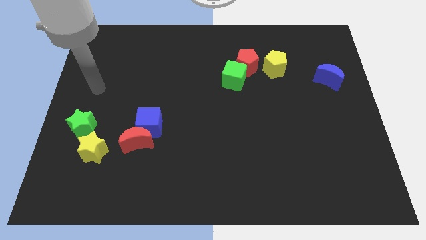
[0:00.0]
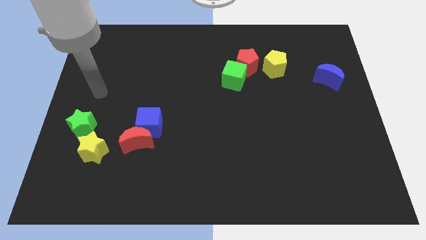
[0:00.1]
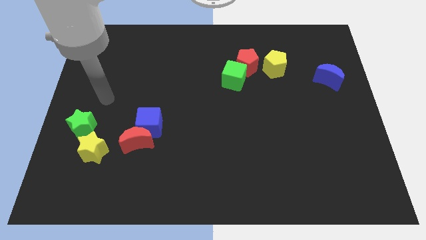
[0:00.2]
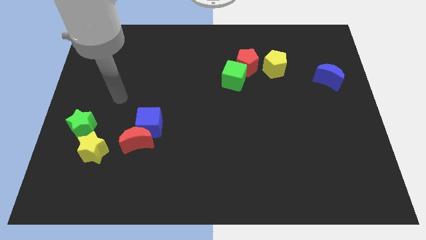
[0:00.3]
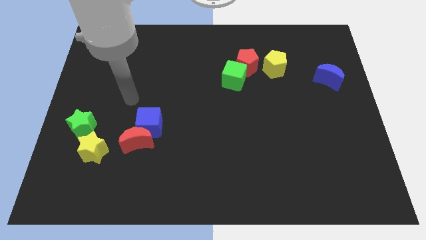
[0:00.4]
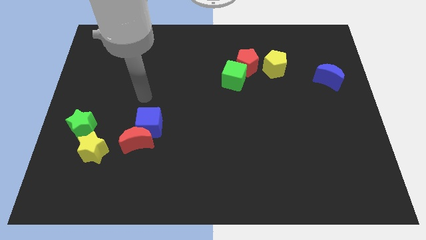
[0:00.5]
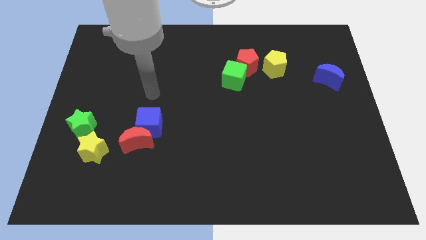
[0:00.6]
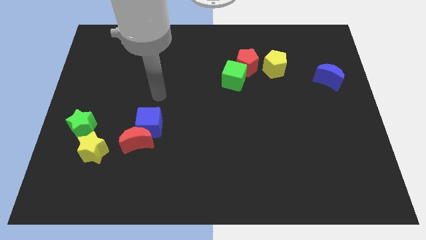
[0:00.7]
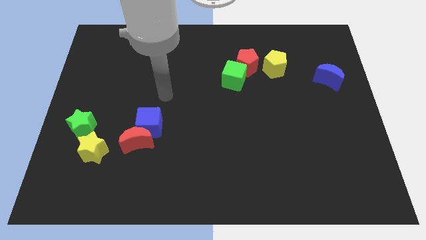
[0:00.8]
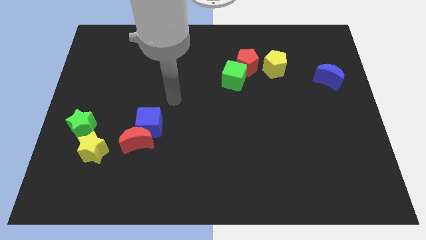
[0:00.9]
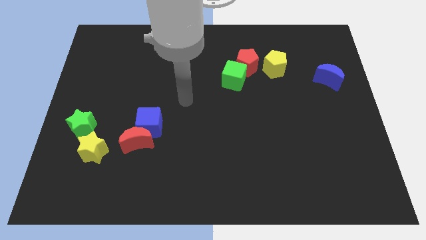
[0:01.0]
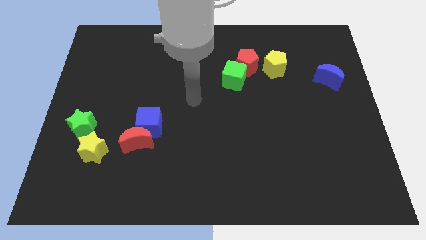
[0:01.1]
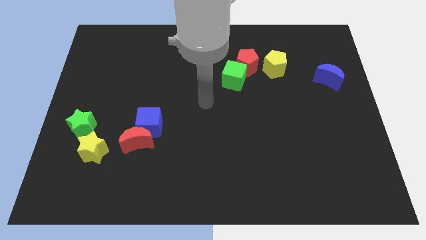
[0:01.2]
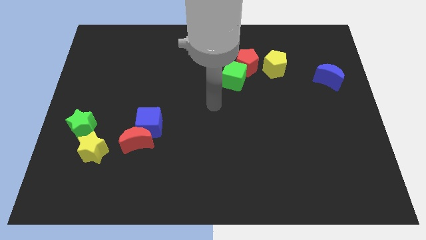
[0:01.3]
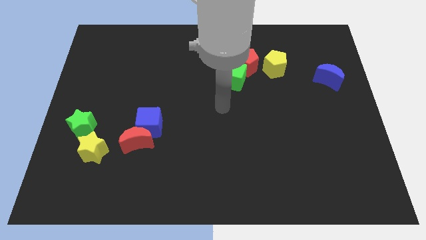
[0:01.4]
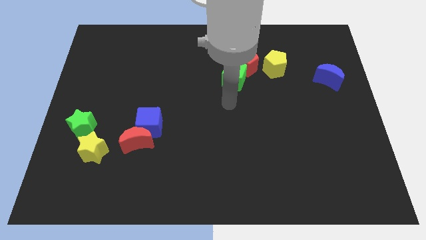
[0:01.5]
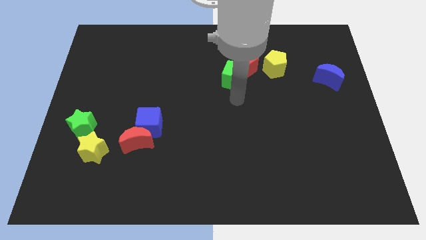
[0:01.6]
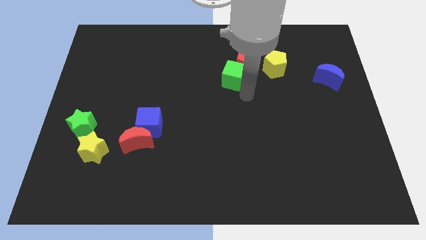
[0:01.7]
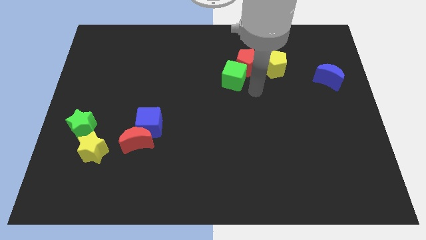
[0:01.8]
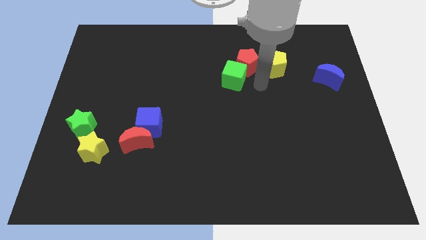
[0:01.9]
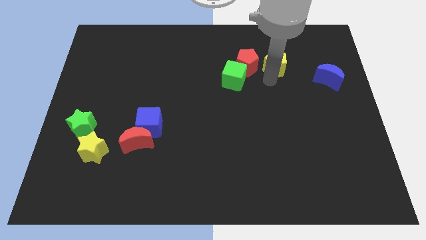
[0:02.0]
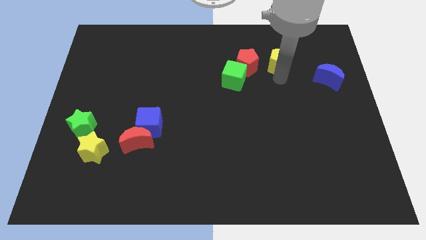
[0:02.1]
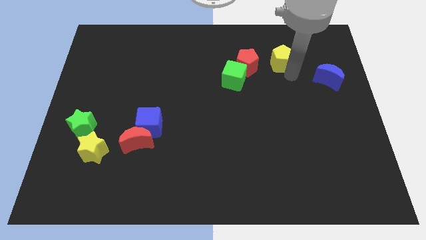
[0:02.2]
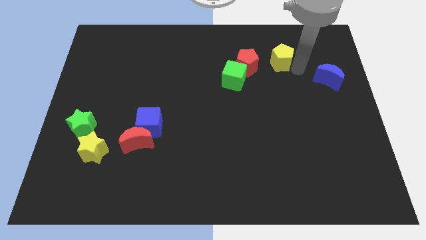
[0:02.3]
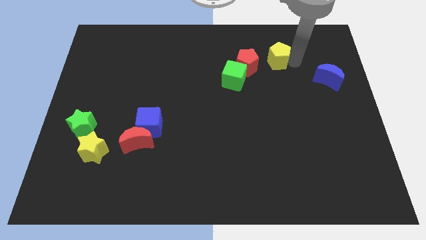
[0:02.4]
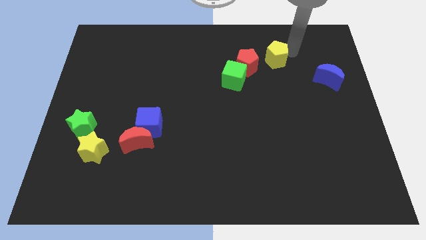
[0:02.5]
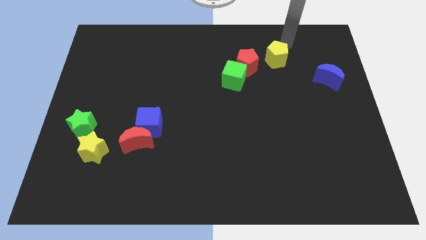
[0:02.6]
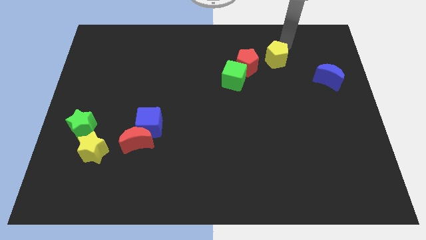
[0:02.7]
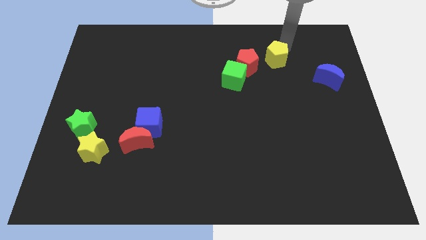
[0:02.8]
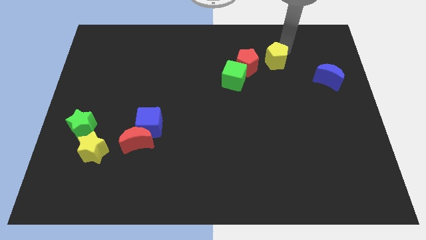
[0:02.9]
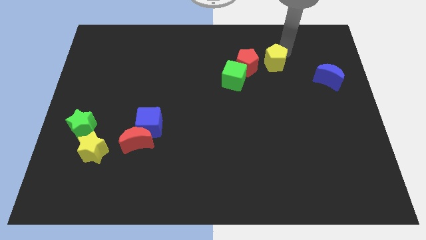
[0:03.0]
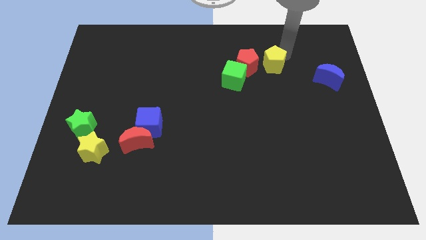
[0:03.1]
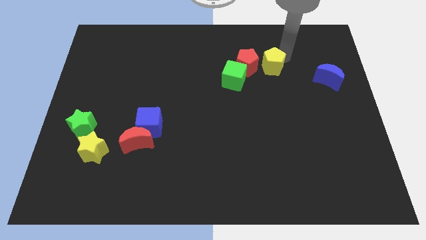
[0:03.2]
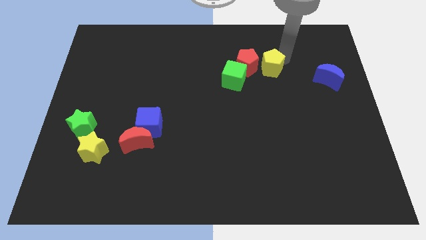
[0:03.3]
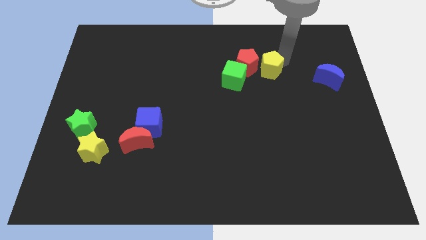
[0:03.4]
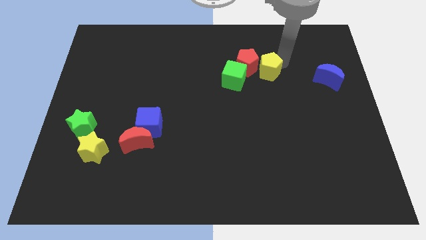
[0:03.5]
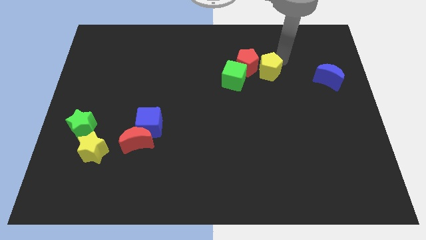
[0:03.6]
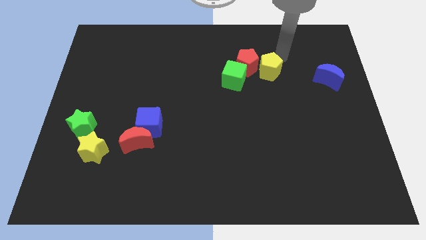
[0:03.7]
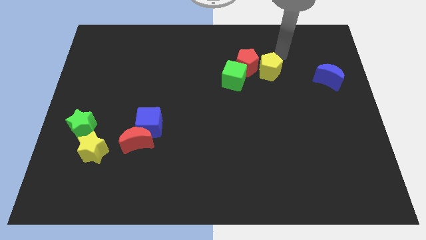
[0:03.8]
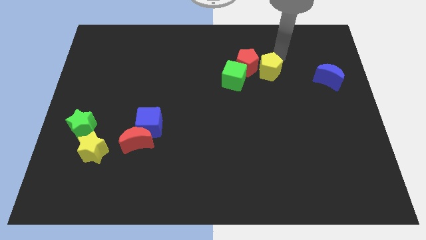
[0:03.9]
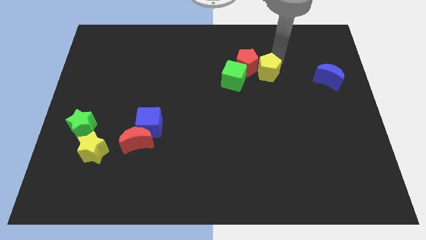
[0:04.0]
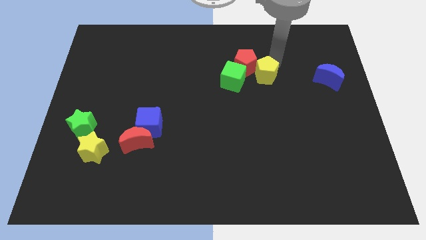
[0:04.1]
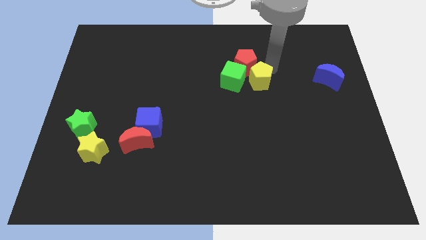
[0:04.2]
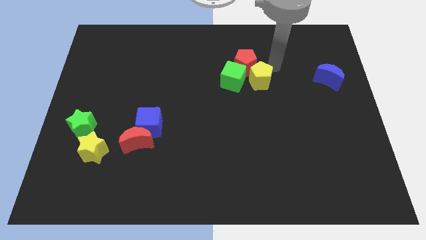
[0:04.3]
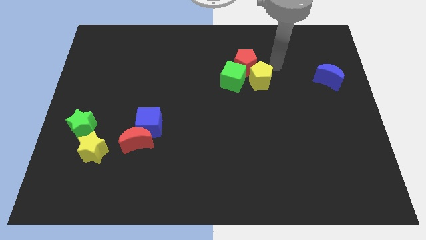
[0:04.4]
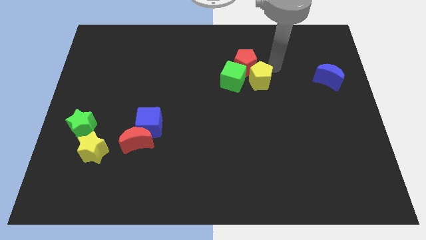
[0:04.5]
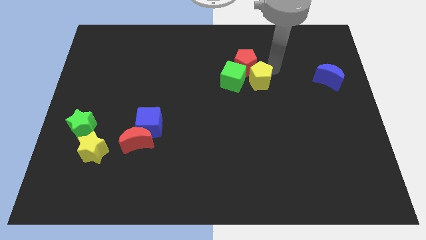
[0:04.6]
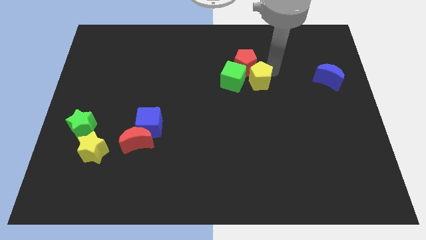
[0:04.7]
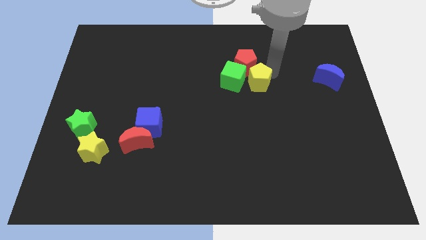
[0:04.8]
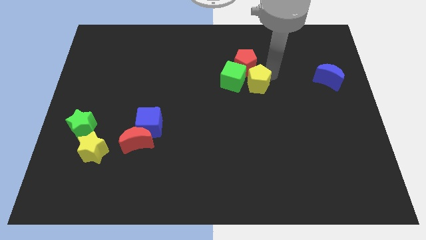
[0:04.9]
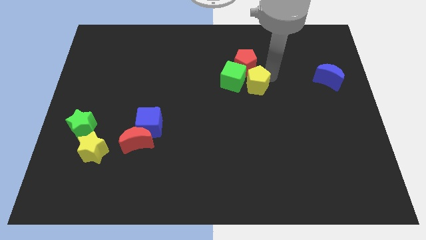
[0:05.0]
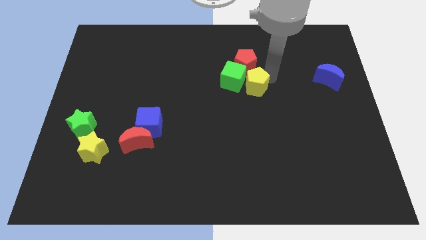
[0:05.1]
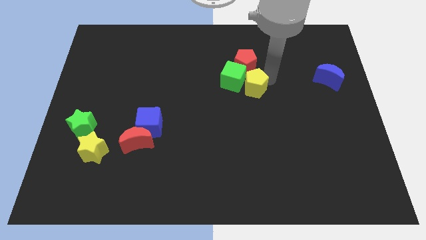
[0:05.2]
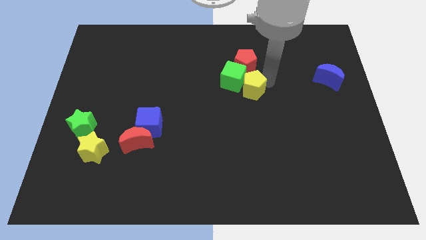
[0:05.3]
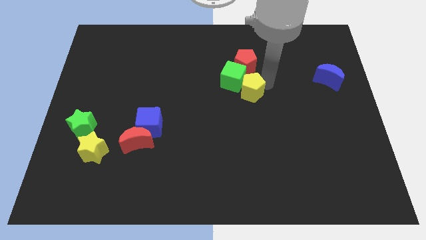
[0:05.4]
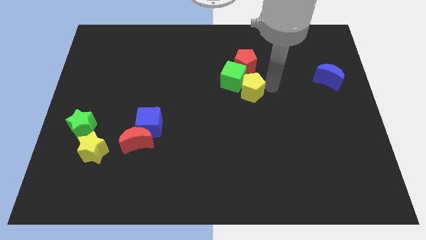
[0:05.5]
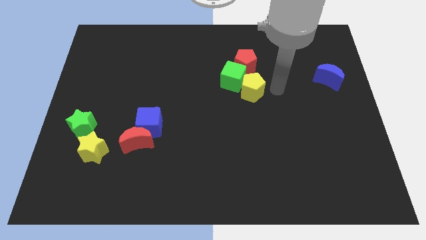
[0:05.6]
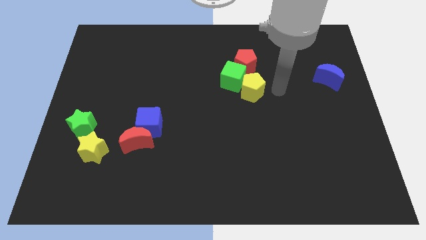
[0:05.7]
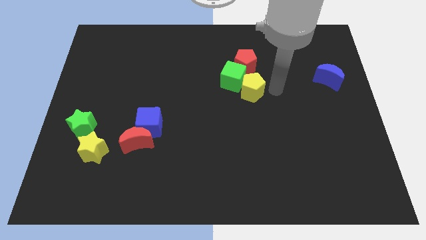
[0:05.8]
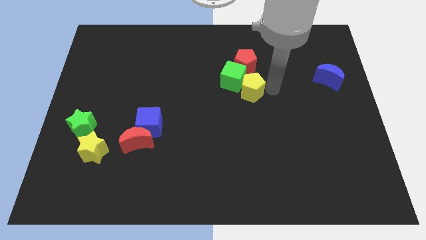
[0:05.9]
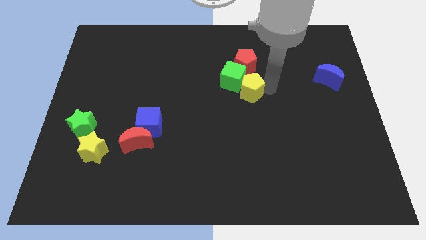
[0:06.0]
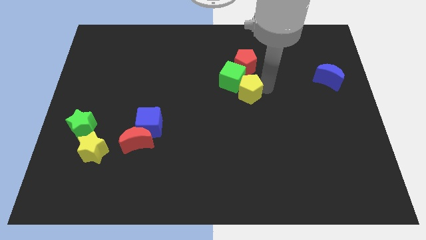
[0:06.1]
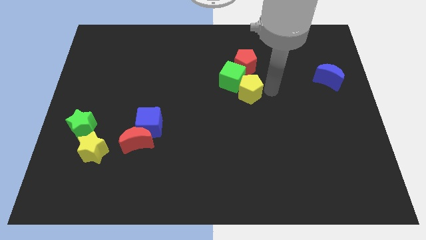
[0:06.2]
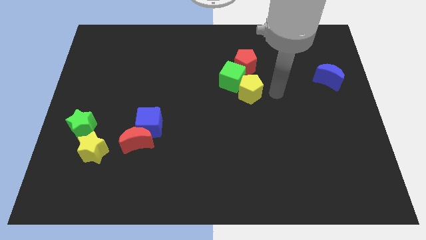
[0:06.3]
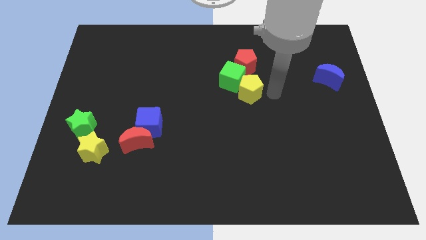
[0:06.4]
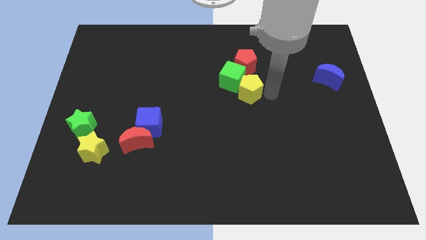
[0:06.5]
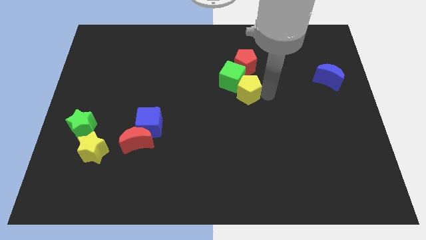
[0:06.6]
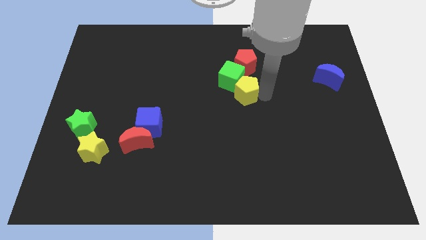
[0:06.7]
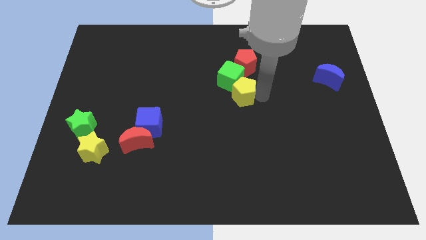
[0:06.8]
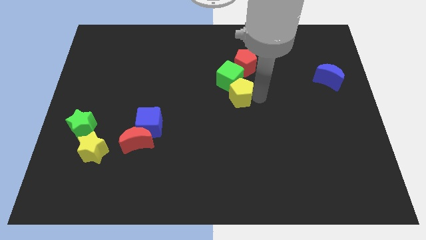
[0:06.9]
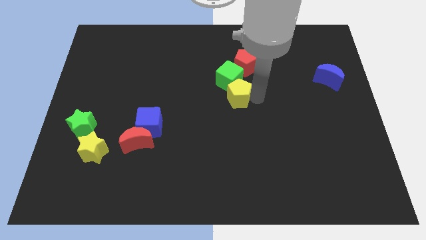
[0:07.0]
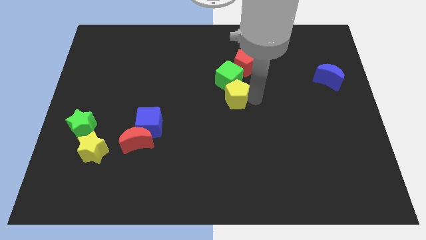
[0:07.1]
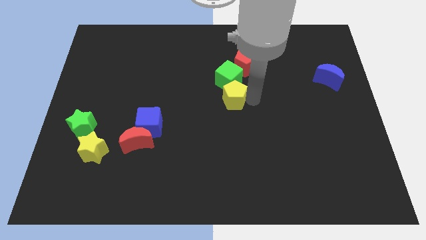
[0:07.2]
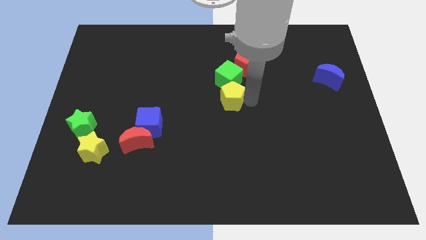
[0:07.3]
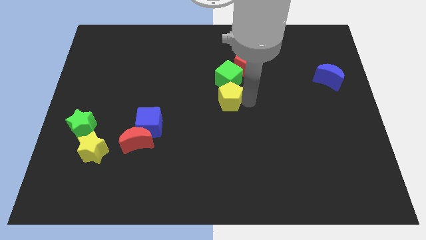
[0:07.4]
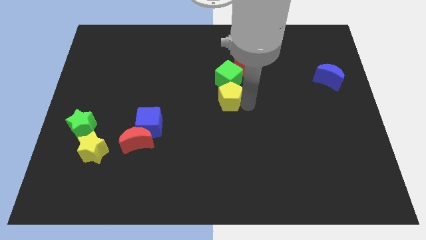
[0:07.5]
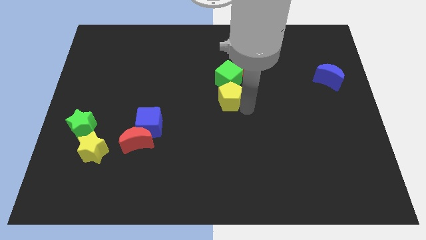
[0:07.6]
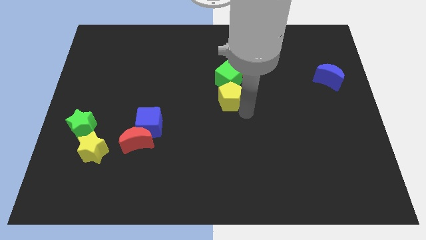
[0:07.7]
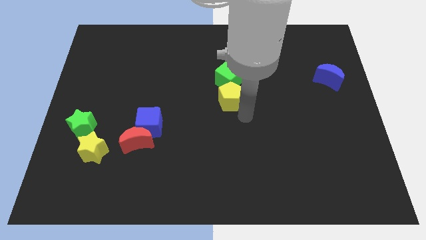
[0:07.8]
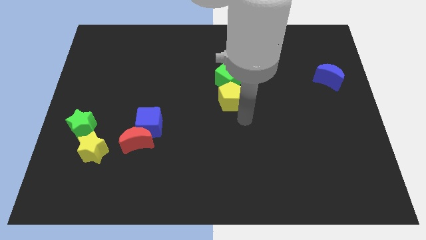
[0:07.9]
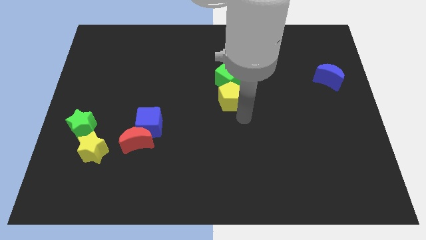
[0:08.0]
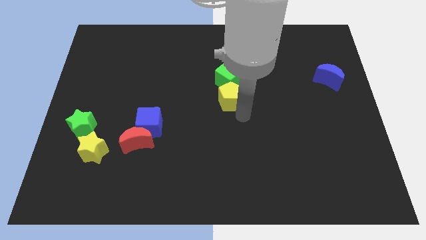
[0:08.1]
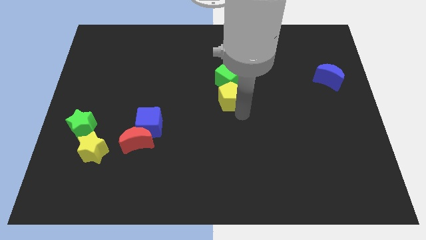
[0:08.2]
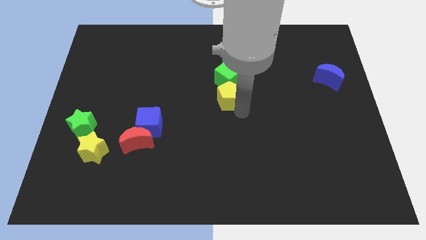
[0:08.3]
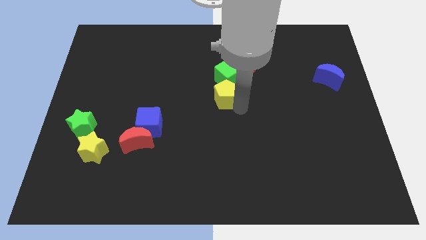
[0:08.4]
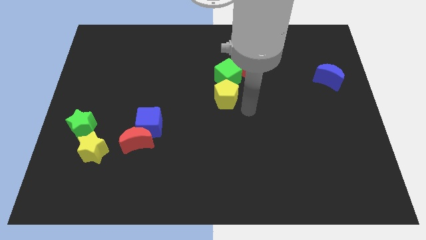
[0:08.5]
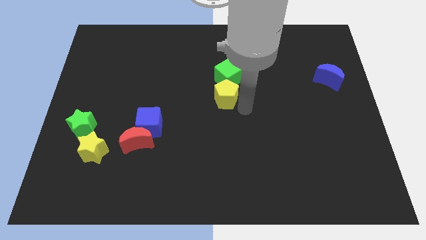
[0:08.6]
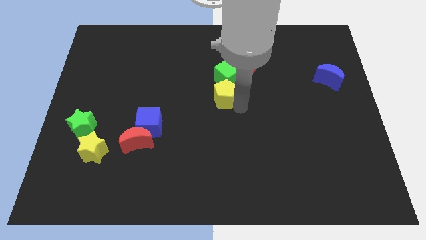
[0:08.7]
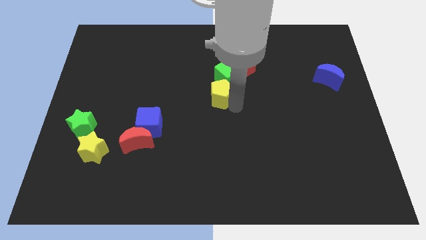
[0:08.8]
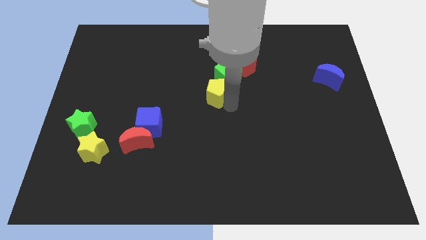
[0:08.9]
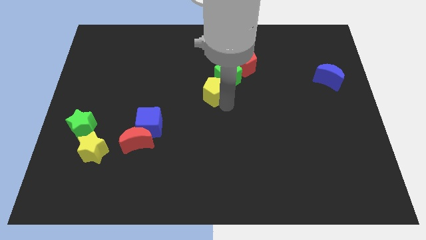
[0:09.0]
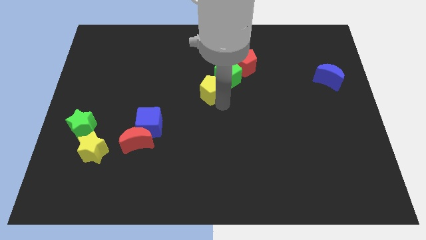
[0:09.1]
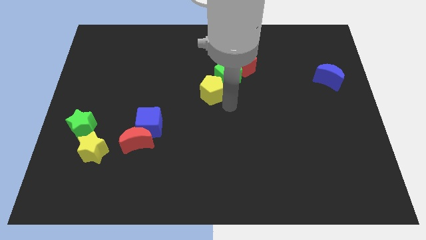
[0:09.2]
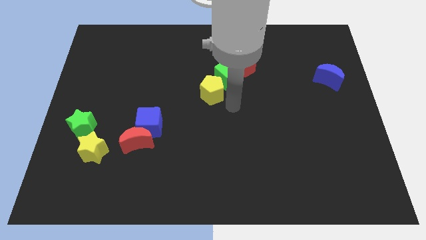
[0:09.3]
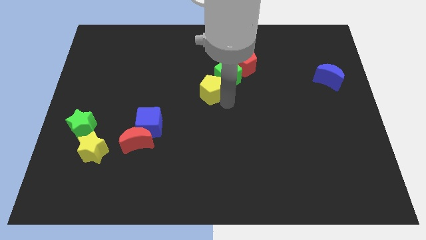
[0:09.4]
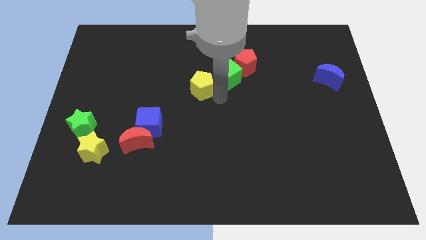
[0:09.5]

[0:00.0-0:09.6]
put the yellow pentagon to the left of the green cube
